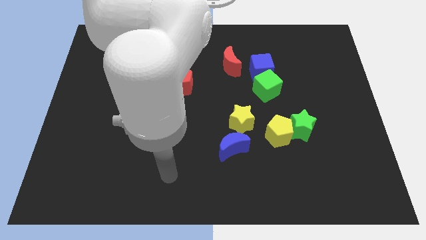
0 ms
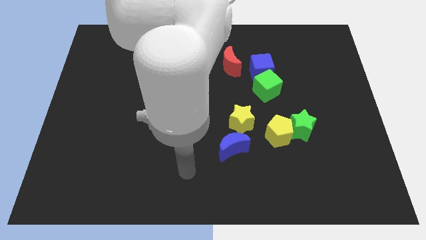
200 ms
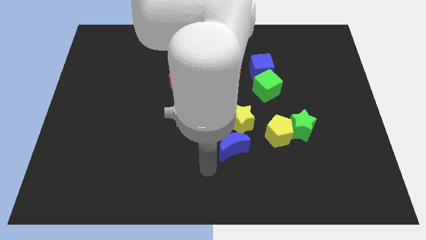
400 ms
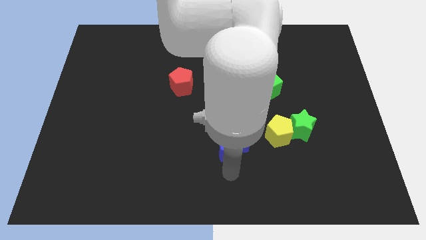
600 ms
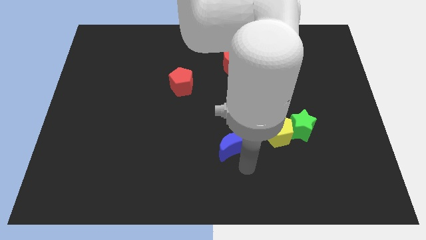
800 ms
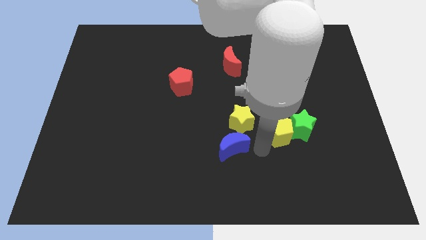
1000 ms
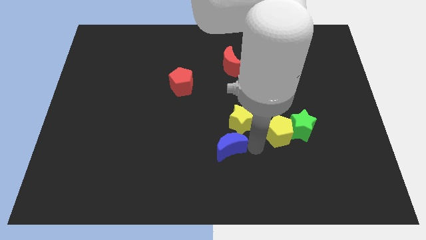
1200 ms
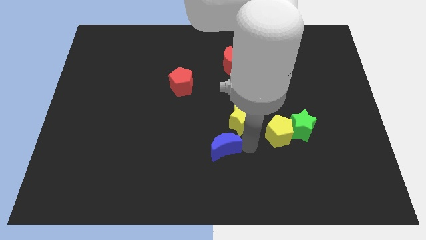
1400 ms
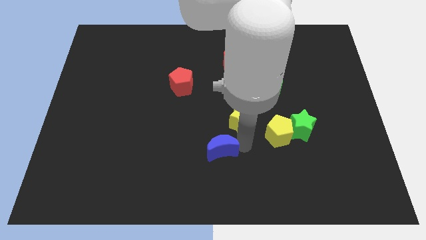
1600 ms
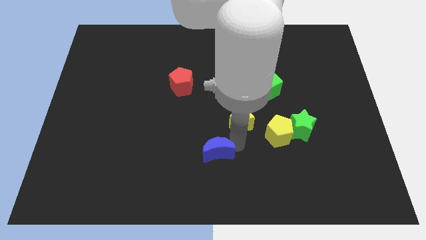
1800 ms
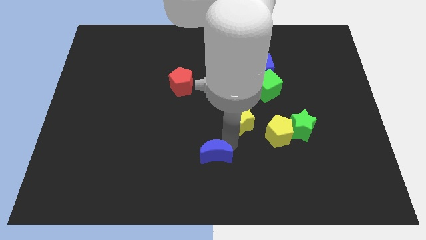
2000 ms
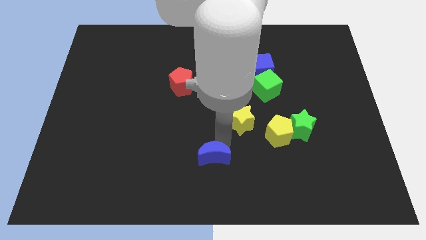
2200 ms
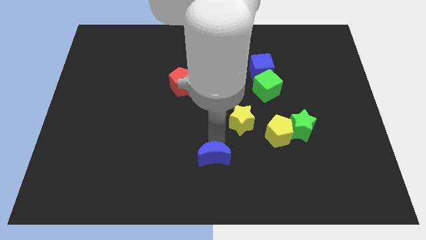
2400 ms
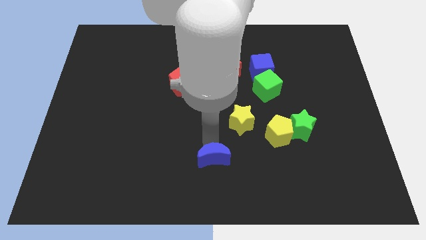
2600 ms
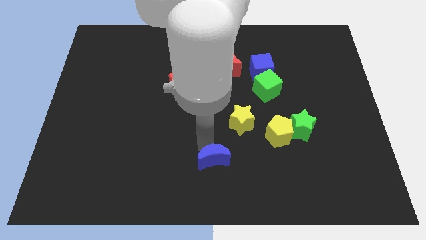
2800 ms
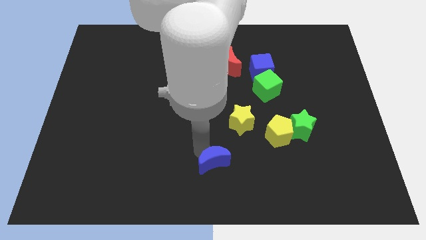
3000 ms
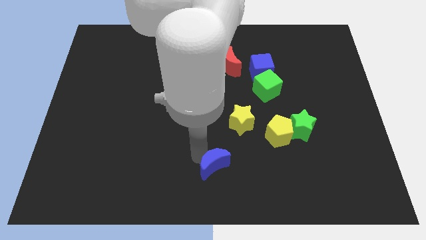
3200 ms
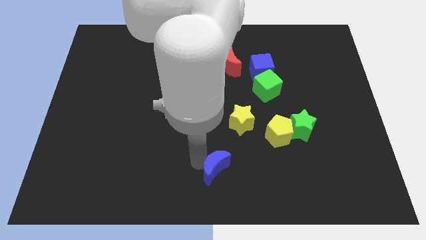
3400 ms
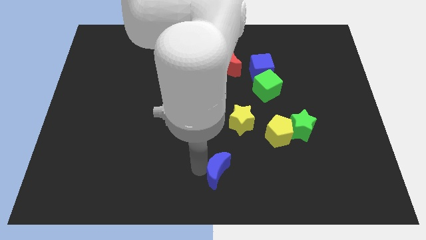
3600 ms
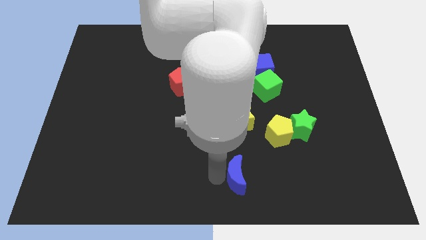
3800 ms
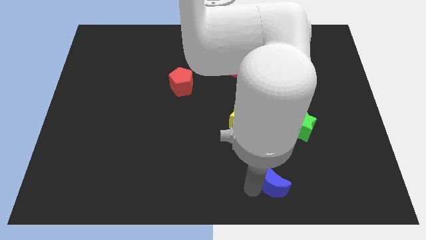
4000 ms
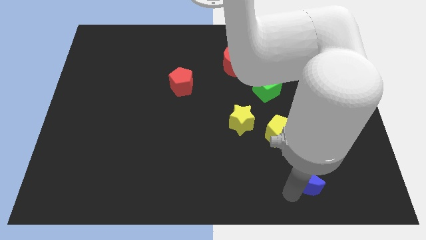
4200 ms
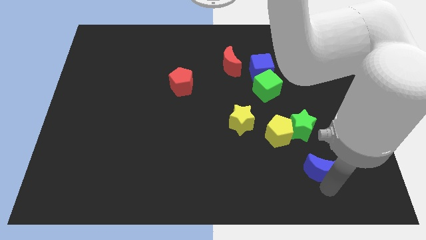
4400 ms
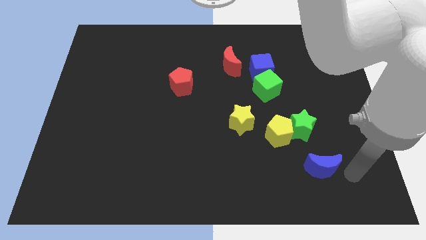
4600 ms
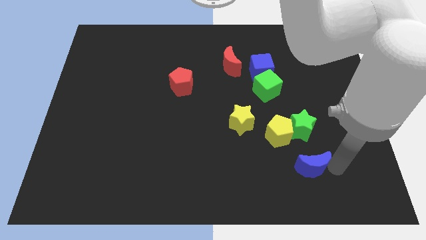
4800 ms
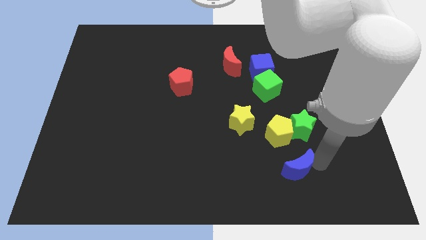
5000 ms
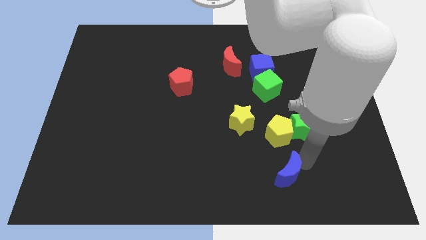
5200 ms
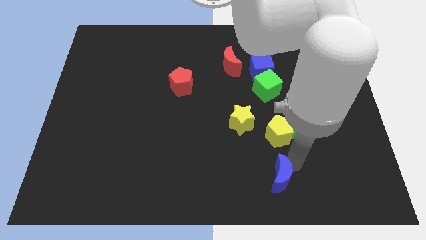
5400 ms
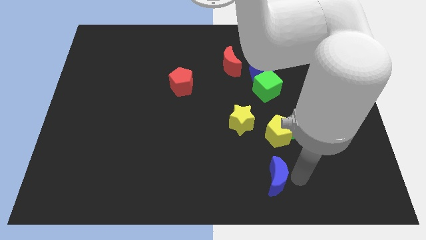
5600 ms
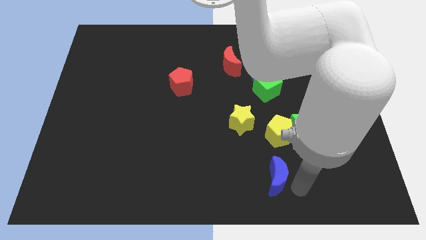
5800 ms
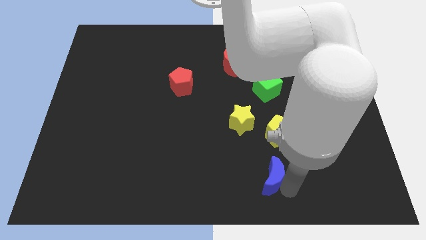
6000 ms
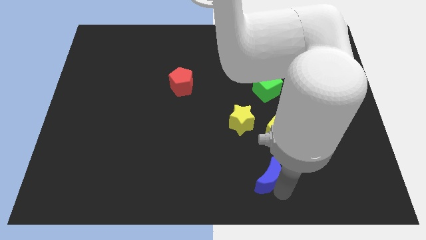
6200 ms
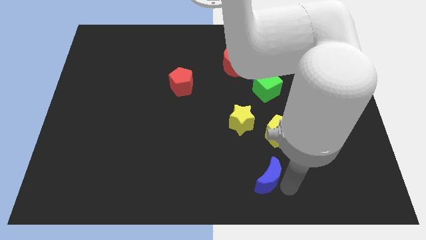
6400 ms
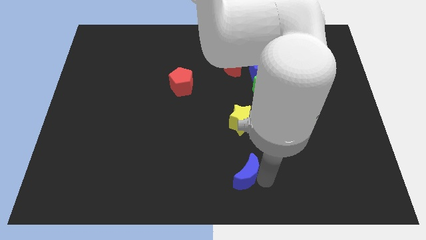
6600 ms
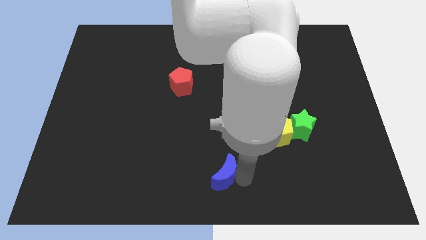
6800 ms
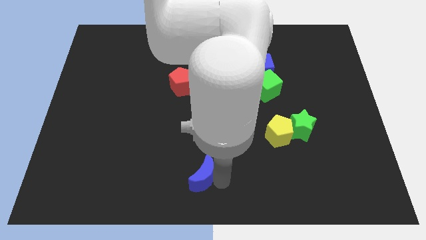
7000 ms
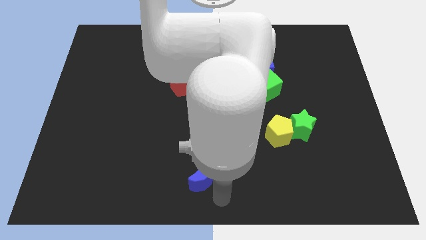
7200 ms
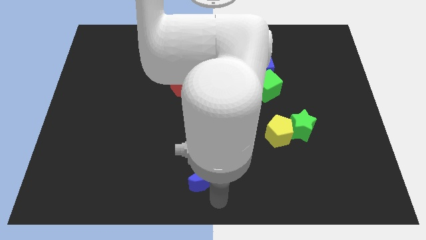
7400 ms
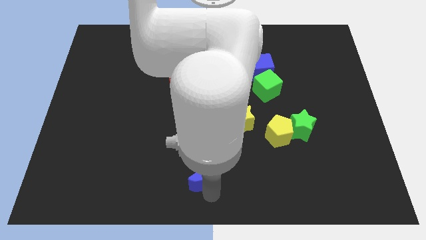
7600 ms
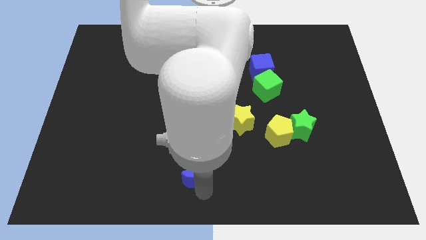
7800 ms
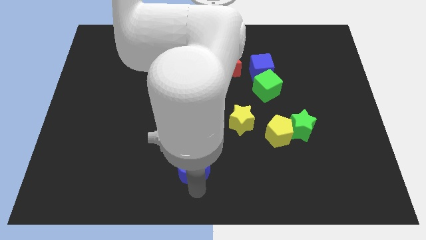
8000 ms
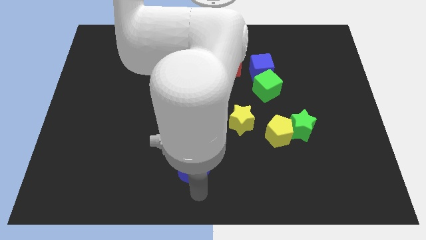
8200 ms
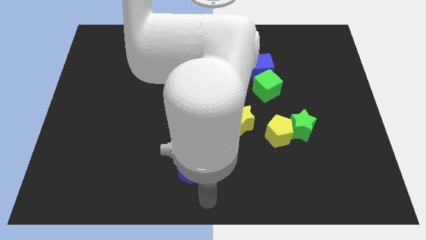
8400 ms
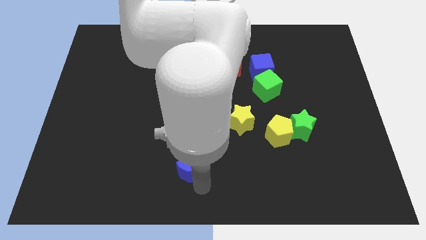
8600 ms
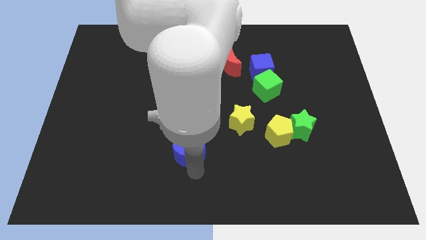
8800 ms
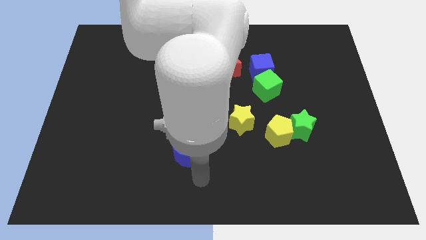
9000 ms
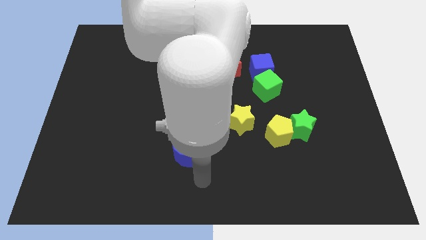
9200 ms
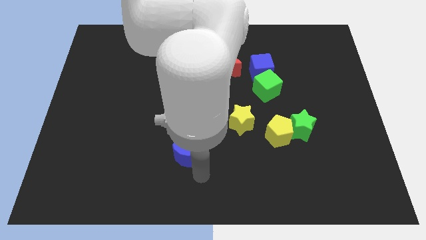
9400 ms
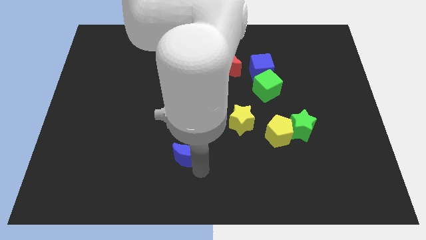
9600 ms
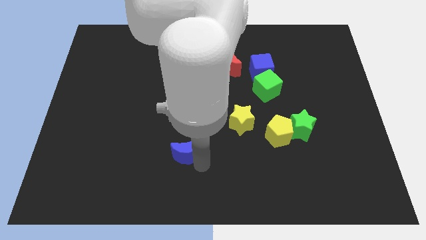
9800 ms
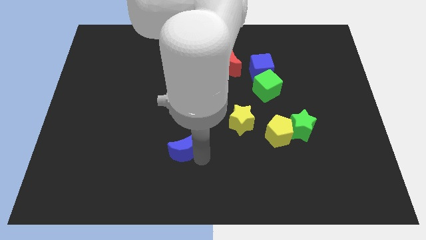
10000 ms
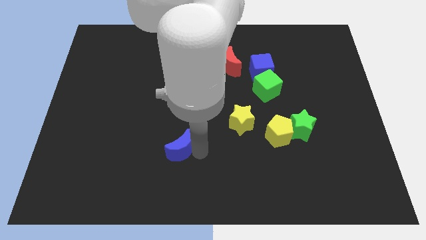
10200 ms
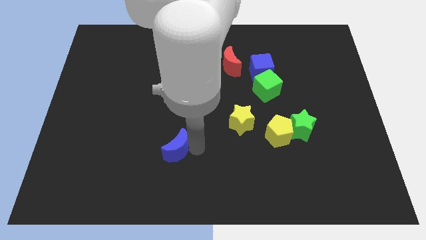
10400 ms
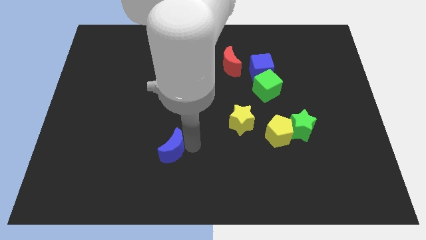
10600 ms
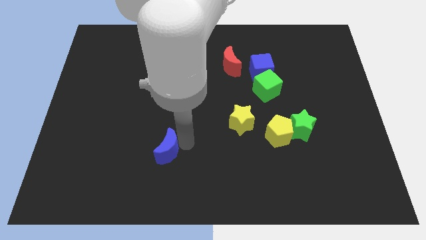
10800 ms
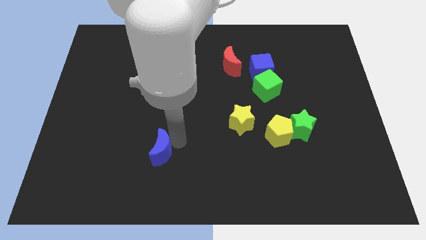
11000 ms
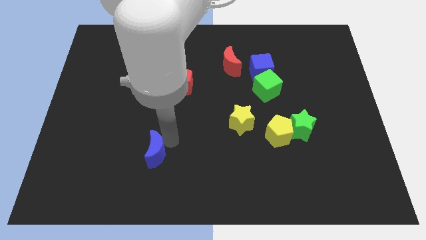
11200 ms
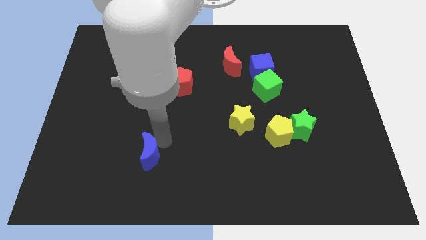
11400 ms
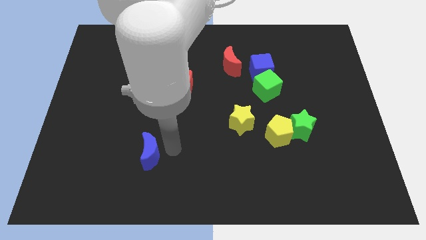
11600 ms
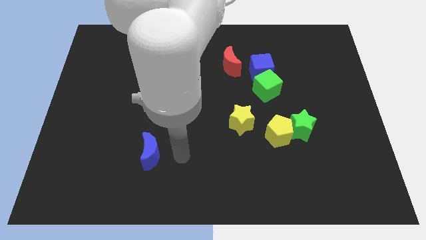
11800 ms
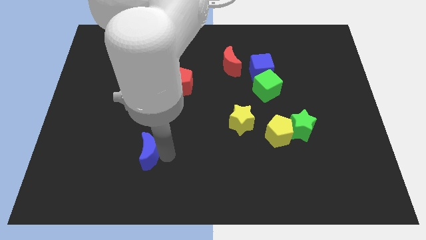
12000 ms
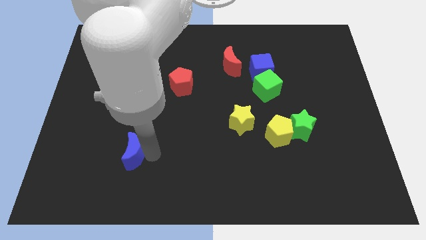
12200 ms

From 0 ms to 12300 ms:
move the blue moon to the left

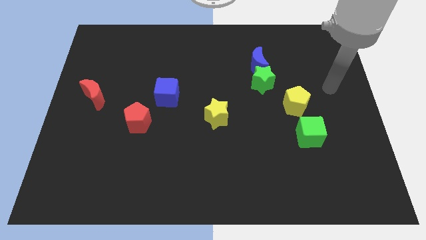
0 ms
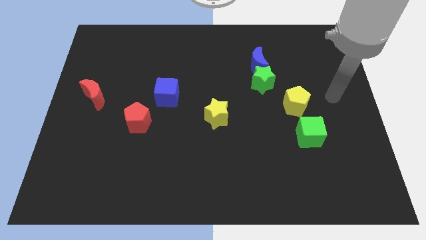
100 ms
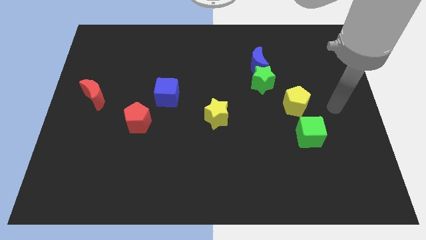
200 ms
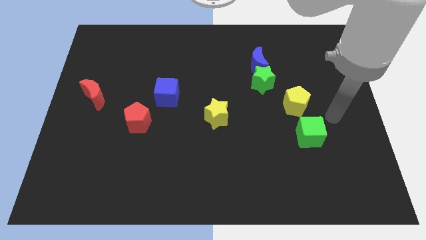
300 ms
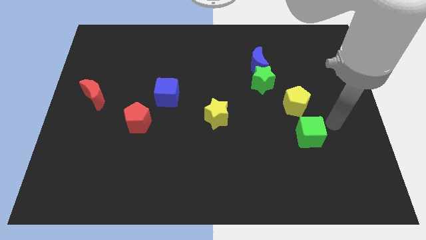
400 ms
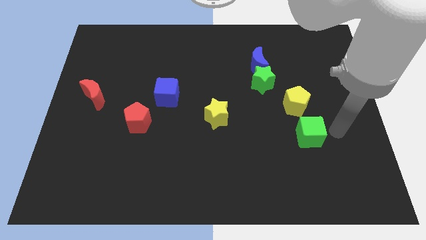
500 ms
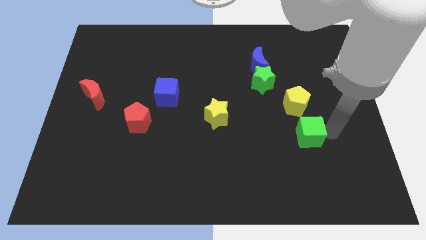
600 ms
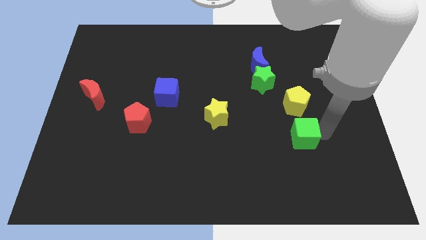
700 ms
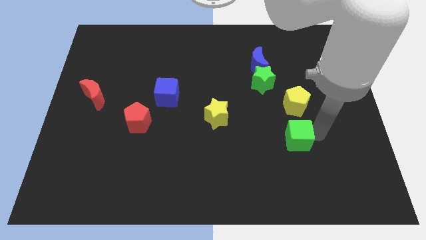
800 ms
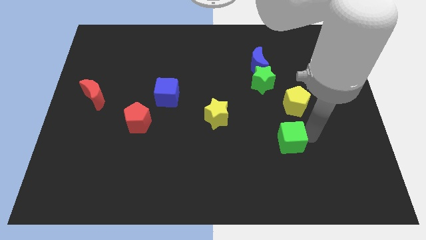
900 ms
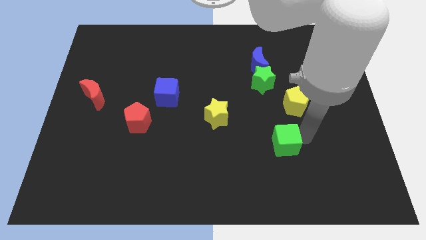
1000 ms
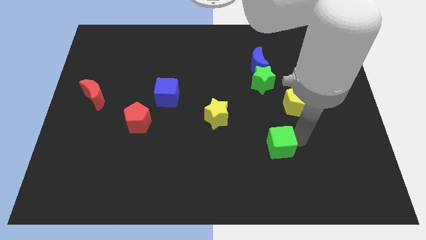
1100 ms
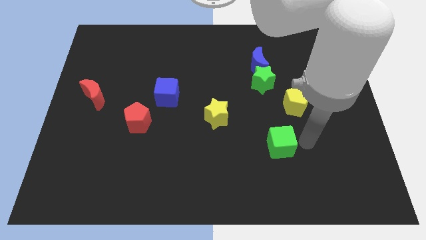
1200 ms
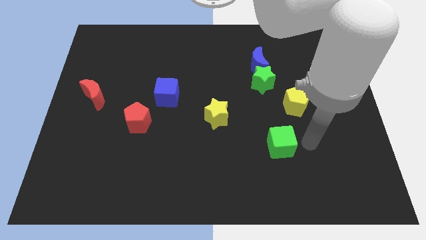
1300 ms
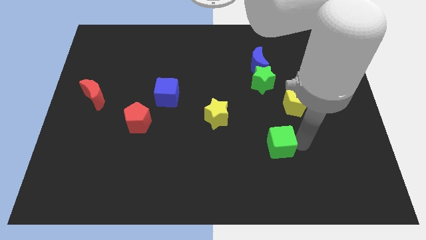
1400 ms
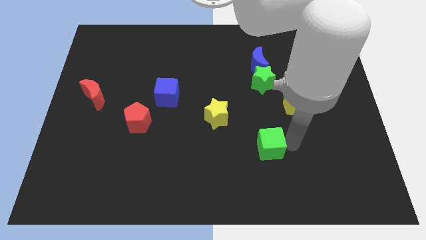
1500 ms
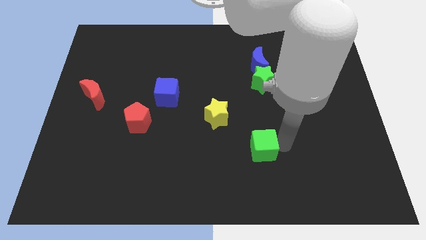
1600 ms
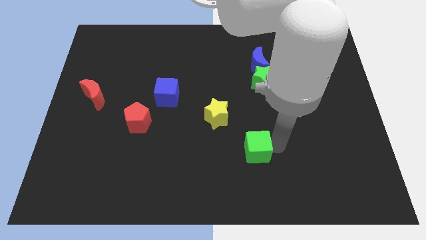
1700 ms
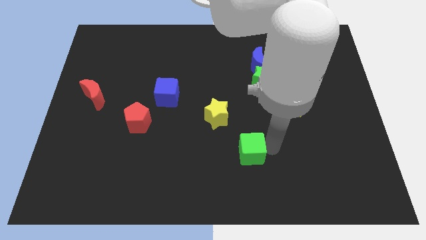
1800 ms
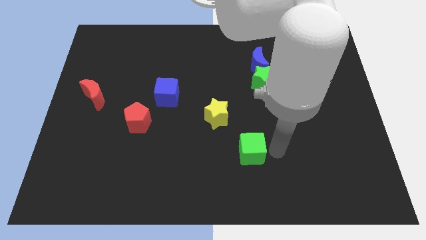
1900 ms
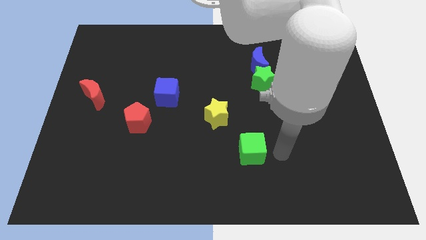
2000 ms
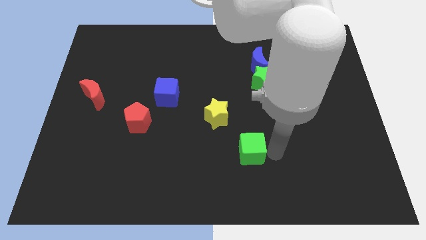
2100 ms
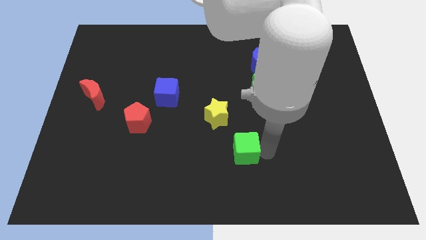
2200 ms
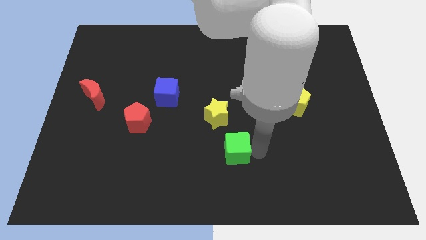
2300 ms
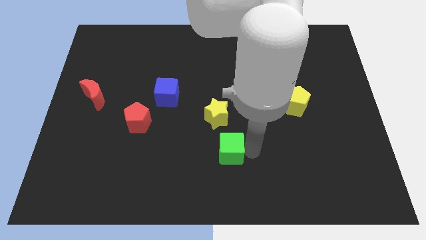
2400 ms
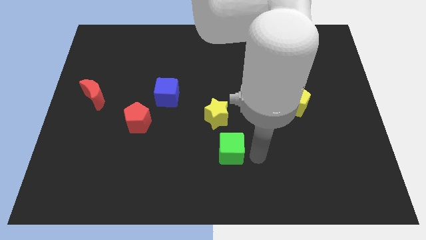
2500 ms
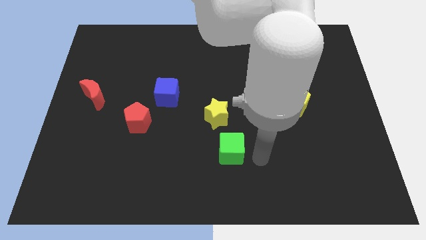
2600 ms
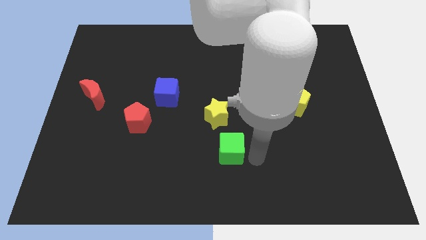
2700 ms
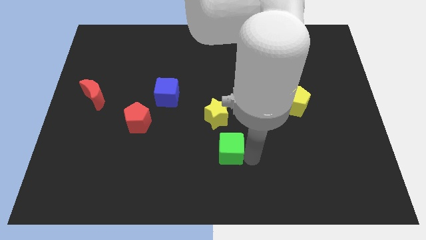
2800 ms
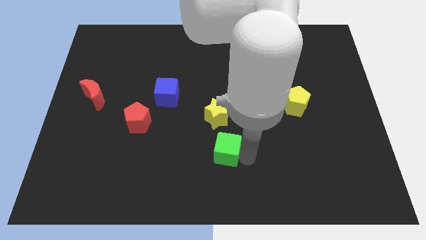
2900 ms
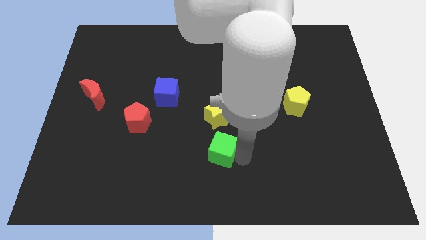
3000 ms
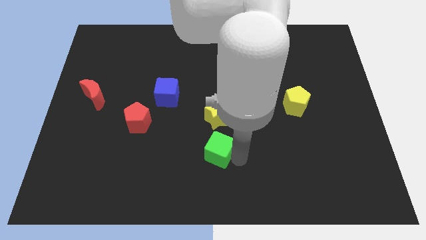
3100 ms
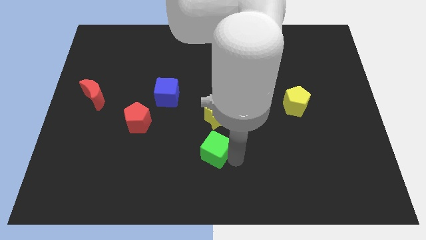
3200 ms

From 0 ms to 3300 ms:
push the green cube to the left
